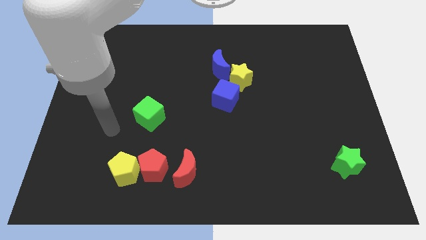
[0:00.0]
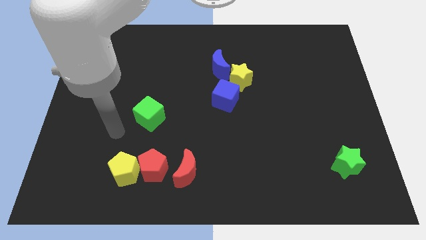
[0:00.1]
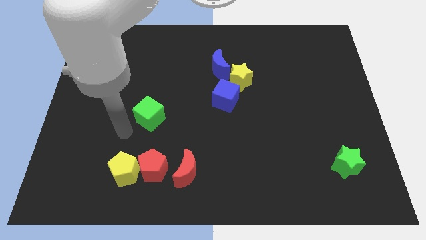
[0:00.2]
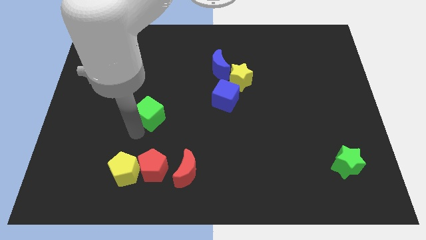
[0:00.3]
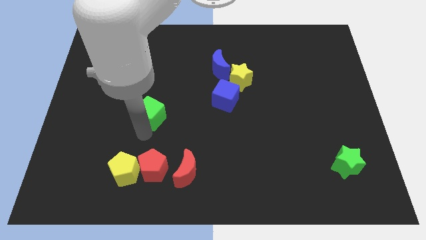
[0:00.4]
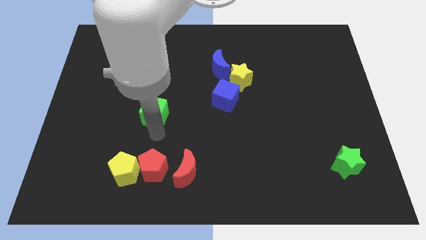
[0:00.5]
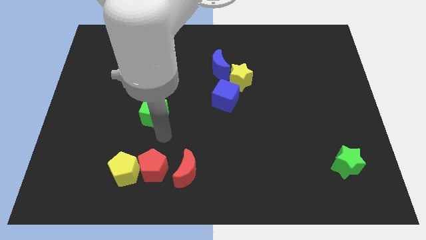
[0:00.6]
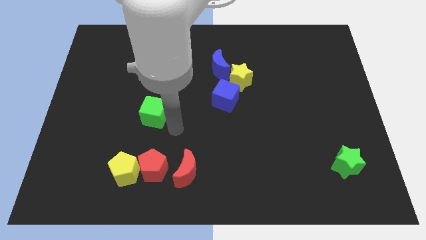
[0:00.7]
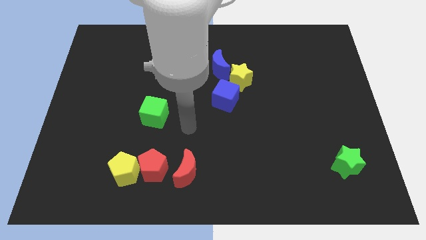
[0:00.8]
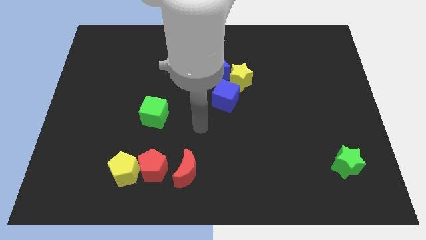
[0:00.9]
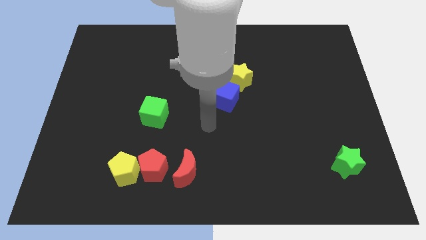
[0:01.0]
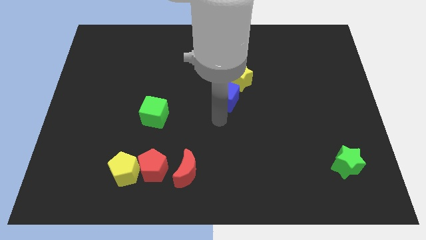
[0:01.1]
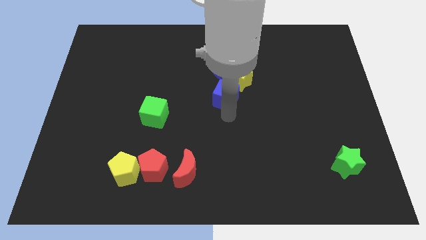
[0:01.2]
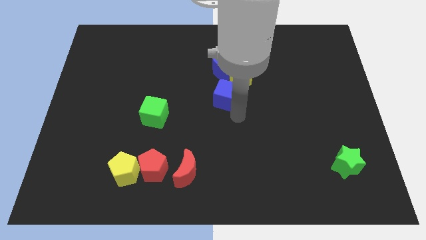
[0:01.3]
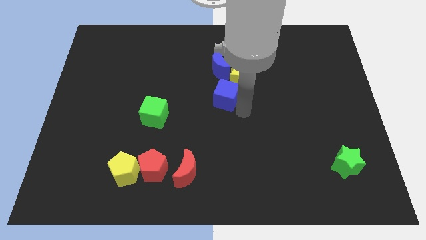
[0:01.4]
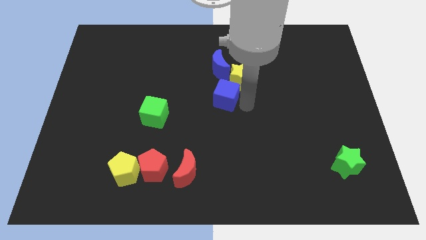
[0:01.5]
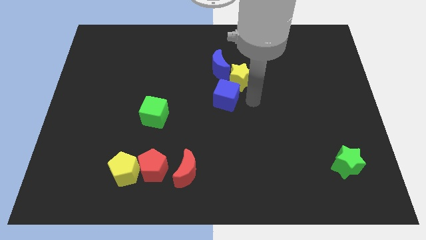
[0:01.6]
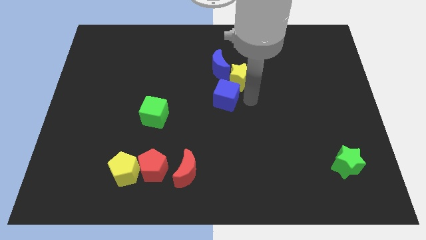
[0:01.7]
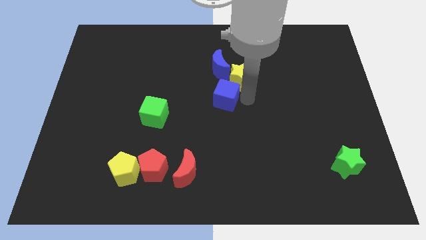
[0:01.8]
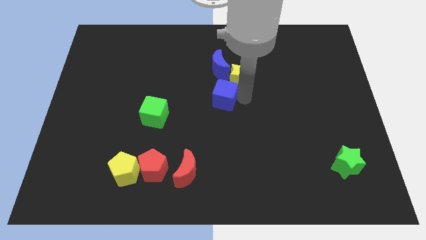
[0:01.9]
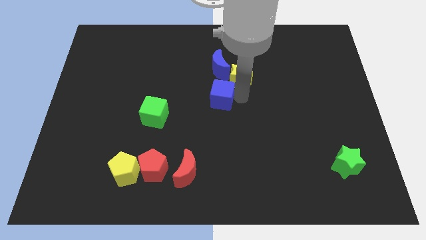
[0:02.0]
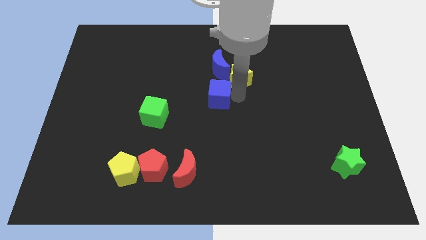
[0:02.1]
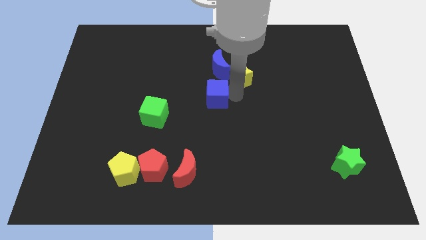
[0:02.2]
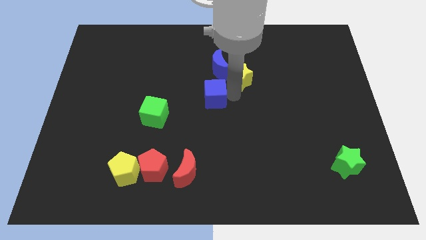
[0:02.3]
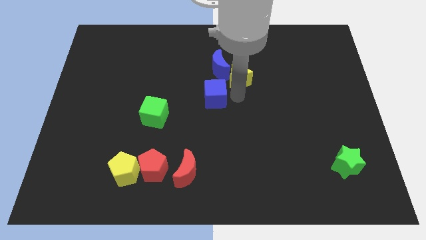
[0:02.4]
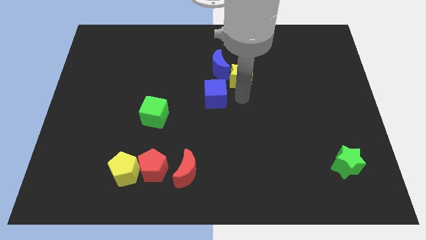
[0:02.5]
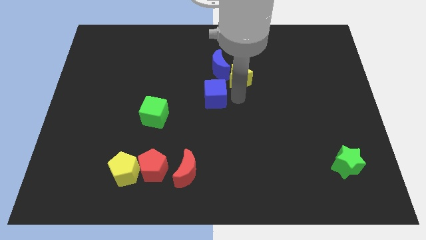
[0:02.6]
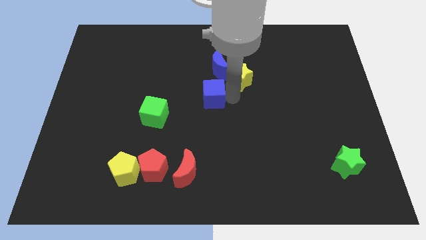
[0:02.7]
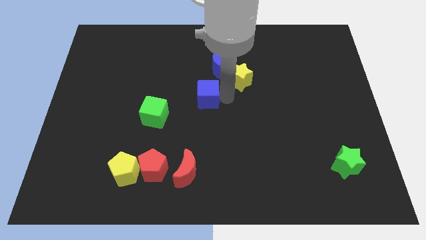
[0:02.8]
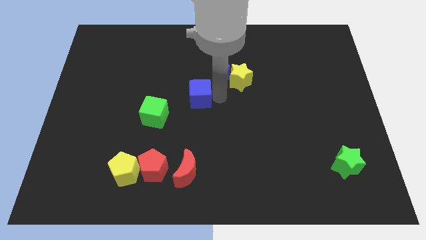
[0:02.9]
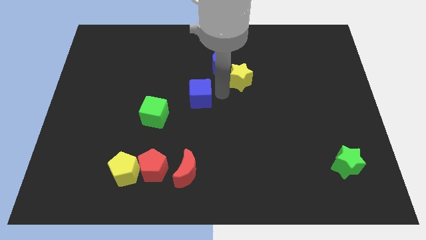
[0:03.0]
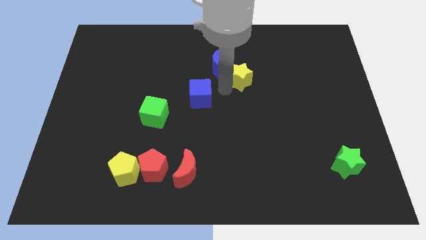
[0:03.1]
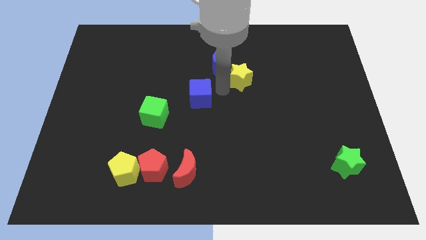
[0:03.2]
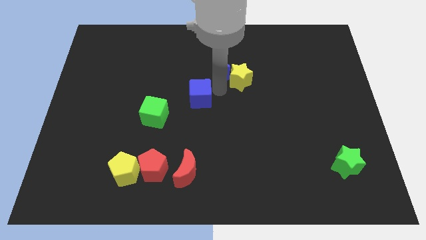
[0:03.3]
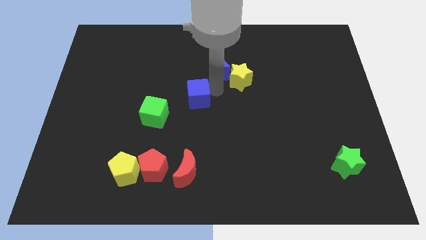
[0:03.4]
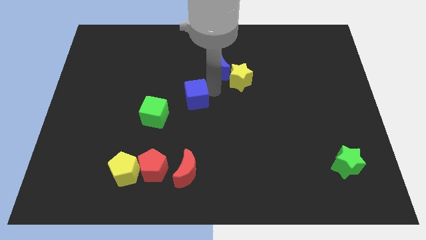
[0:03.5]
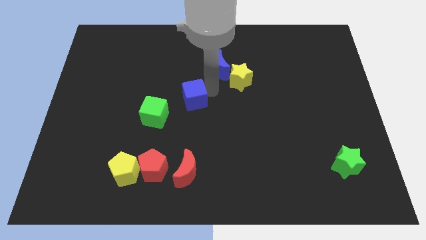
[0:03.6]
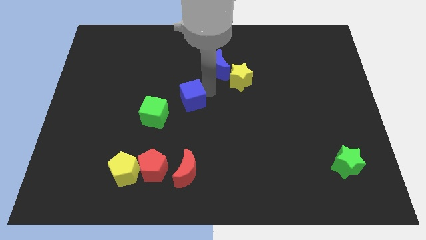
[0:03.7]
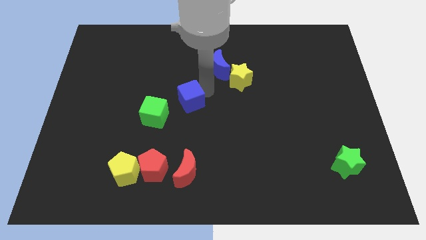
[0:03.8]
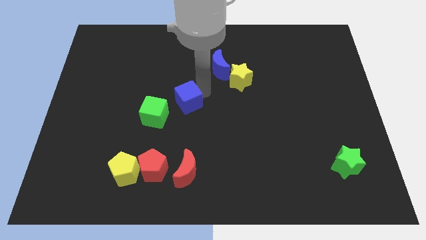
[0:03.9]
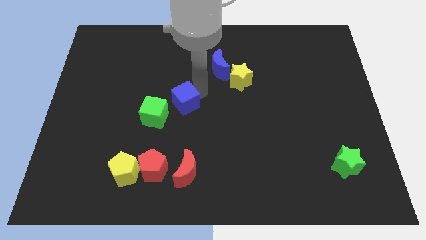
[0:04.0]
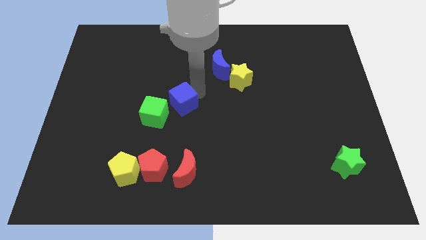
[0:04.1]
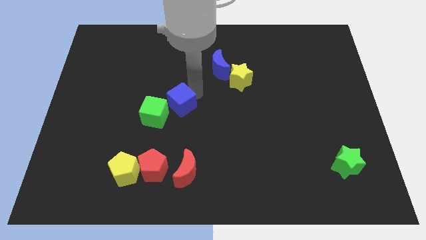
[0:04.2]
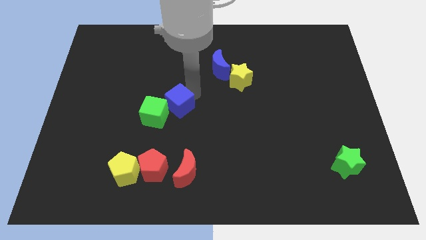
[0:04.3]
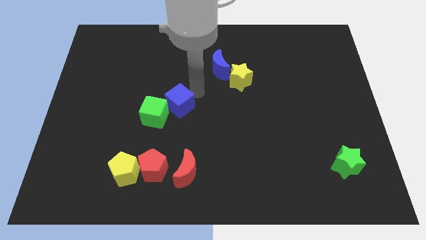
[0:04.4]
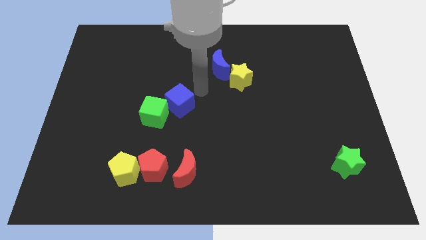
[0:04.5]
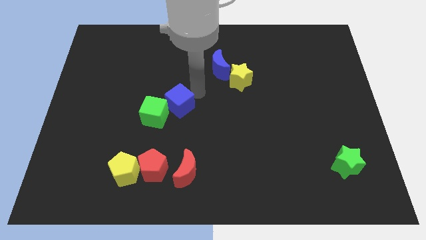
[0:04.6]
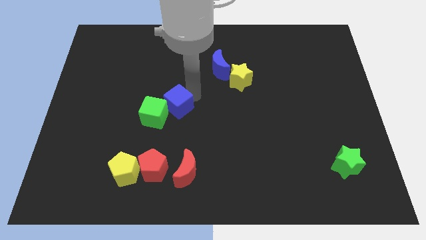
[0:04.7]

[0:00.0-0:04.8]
slide the blue cube next to the green cube

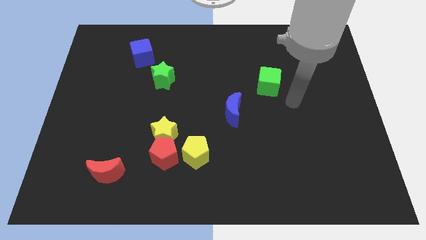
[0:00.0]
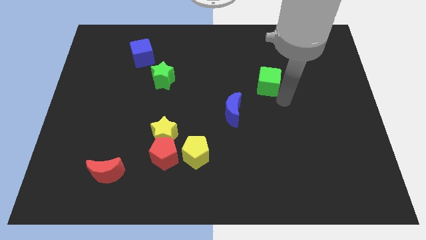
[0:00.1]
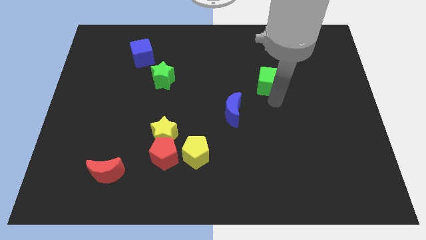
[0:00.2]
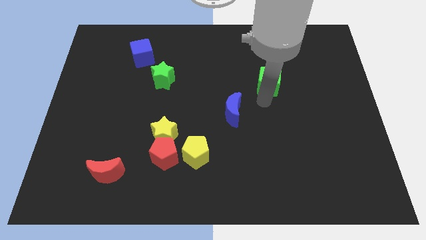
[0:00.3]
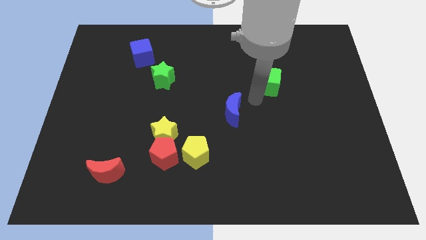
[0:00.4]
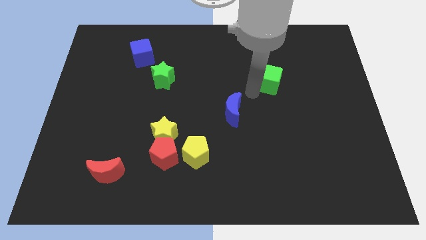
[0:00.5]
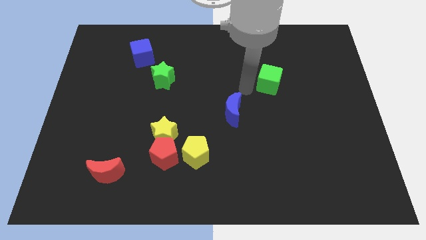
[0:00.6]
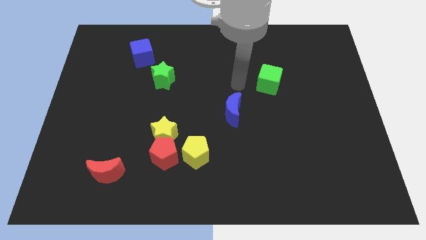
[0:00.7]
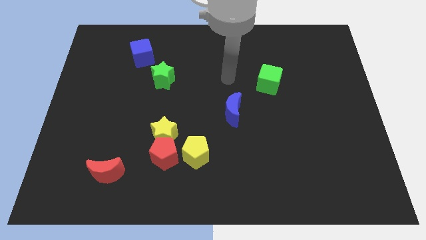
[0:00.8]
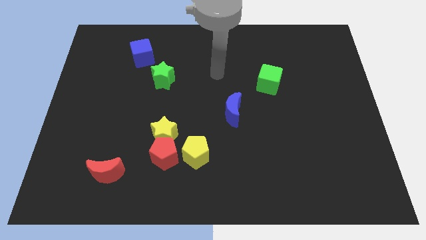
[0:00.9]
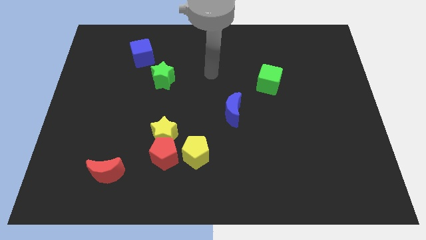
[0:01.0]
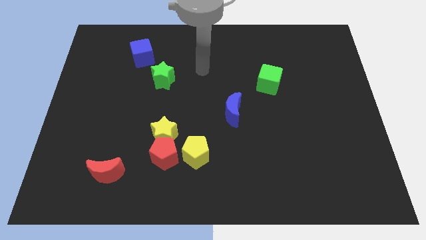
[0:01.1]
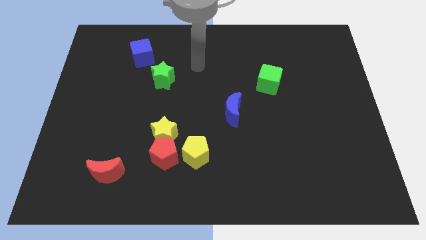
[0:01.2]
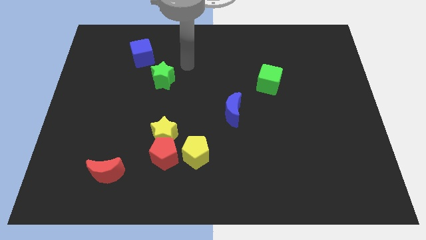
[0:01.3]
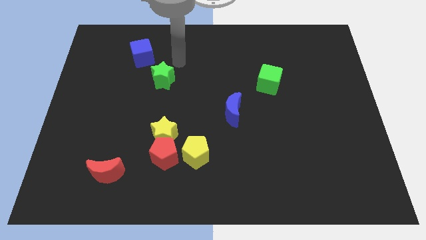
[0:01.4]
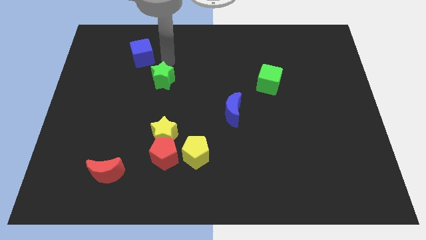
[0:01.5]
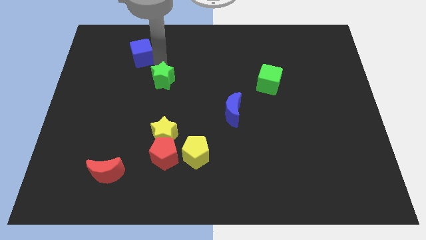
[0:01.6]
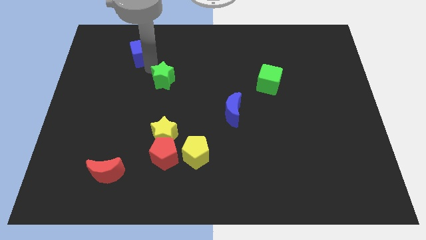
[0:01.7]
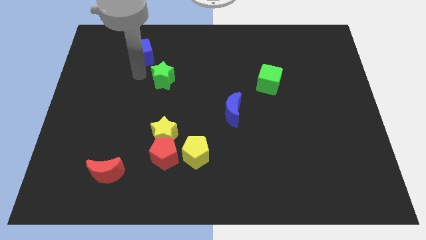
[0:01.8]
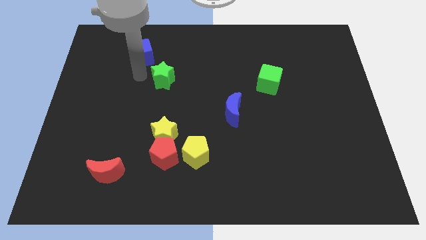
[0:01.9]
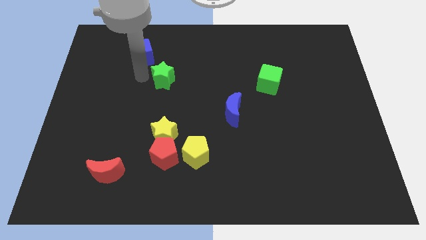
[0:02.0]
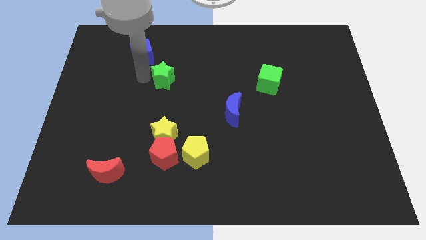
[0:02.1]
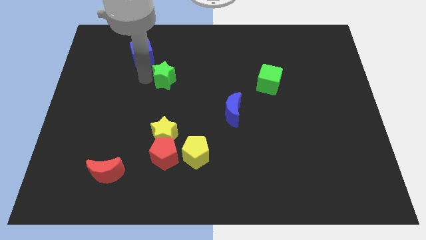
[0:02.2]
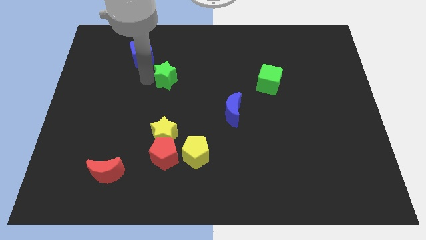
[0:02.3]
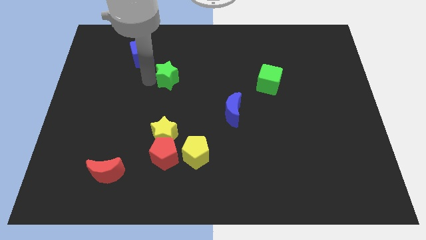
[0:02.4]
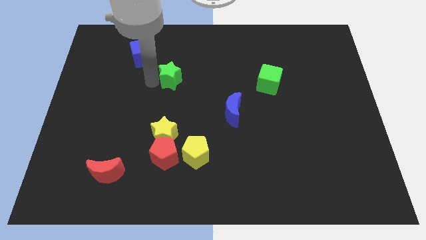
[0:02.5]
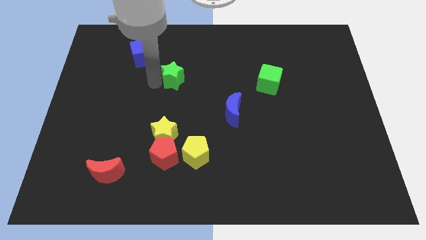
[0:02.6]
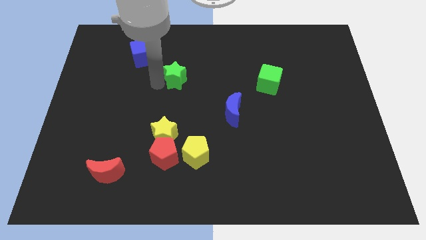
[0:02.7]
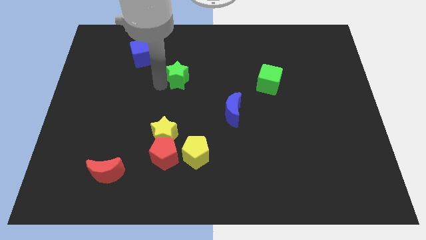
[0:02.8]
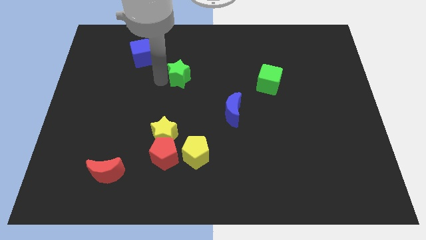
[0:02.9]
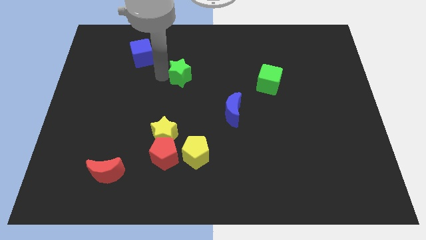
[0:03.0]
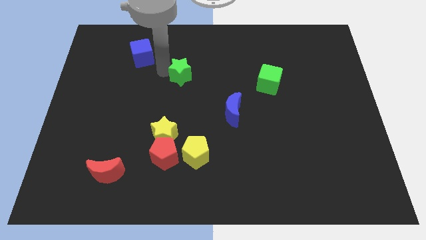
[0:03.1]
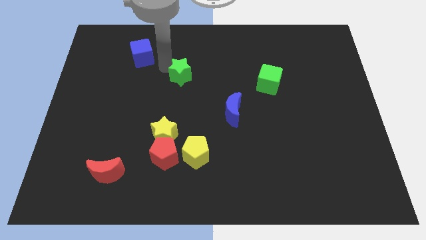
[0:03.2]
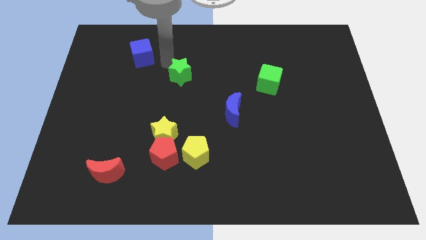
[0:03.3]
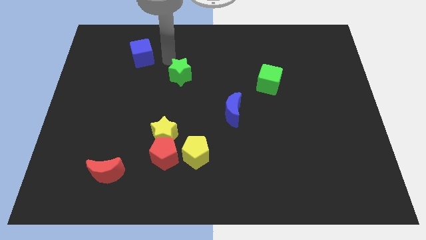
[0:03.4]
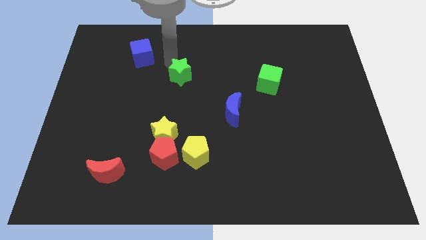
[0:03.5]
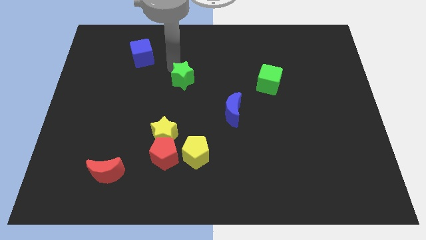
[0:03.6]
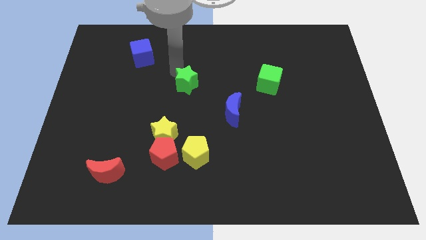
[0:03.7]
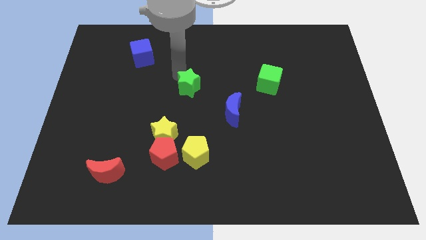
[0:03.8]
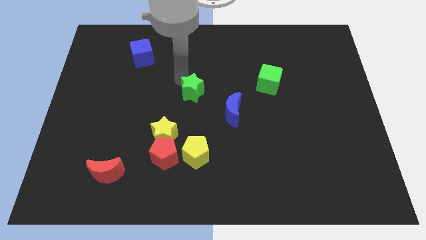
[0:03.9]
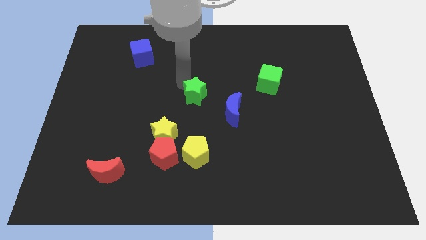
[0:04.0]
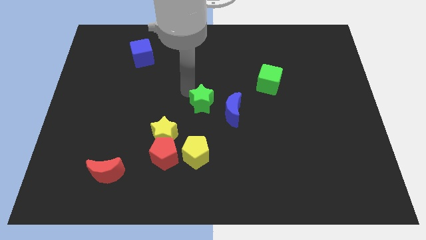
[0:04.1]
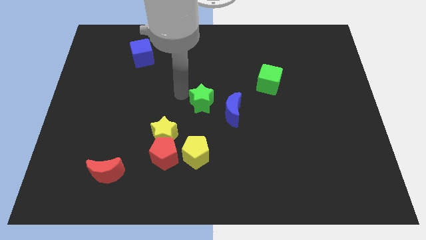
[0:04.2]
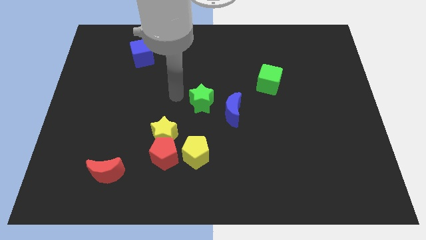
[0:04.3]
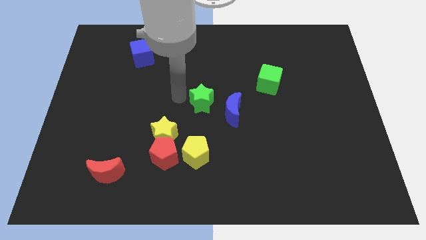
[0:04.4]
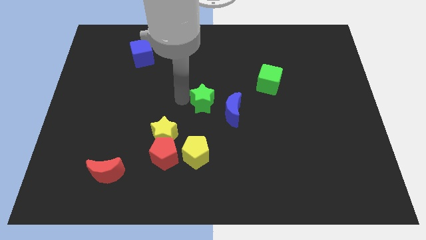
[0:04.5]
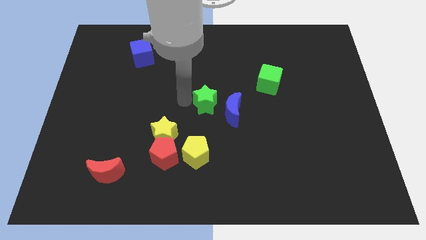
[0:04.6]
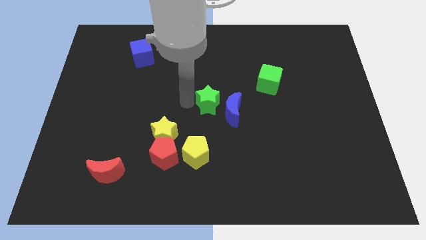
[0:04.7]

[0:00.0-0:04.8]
move the green star to the blue moon
